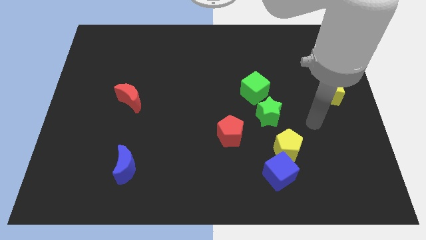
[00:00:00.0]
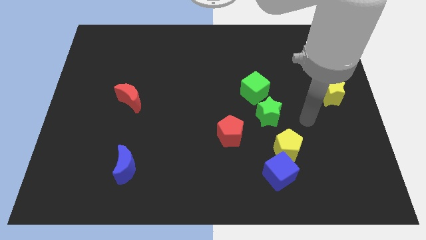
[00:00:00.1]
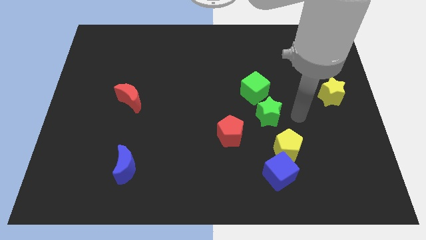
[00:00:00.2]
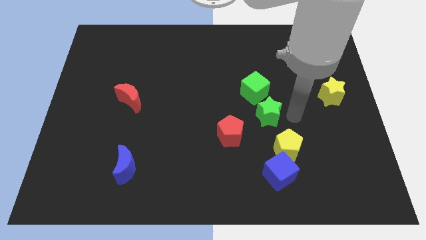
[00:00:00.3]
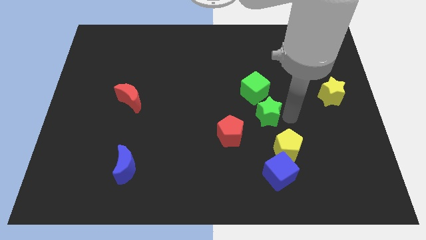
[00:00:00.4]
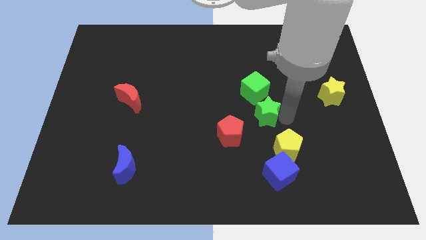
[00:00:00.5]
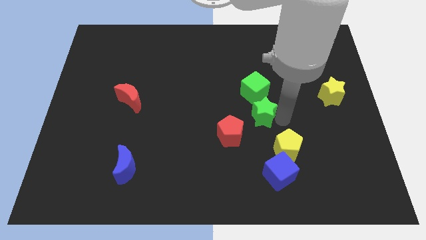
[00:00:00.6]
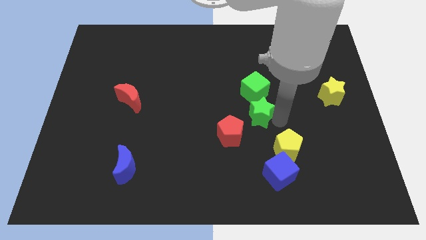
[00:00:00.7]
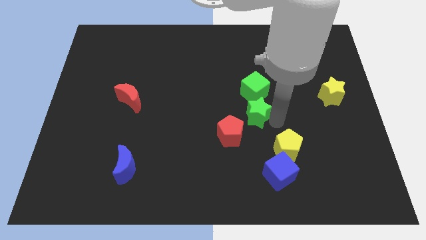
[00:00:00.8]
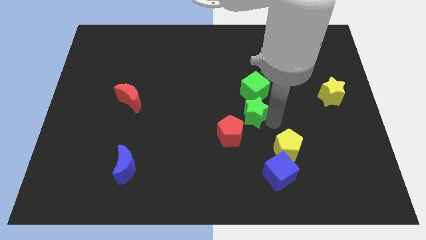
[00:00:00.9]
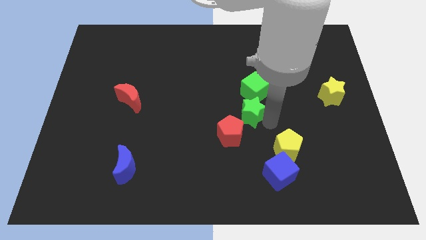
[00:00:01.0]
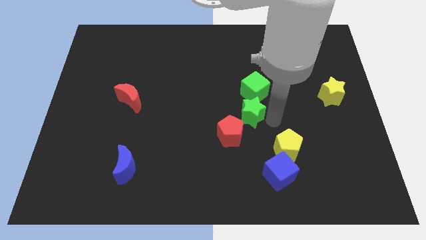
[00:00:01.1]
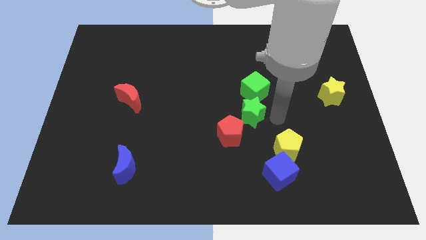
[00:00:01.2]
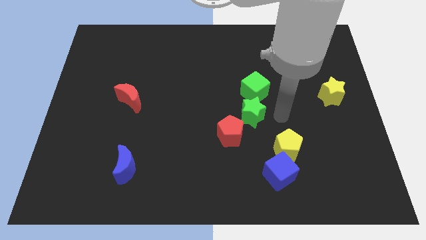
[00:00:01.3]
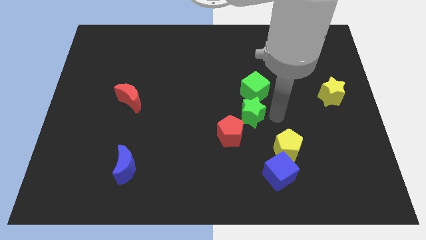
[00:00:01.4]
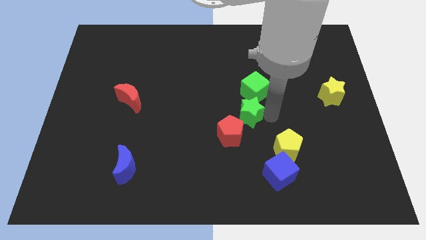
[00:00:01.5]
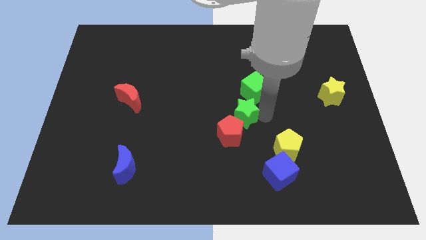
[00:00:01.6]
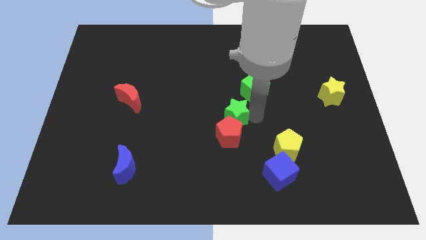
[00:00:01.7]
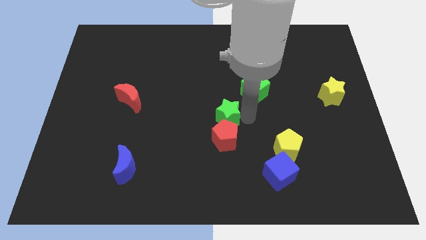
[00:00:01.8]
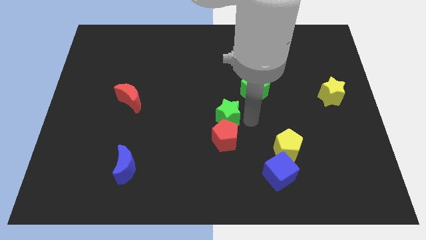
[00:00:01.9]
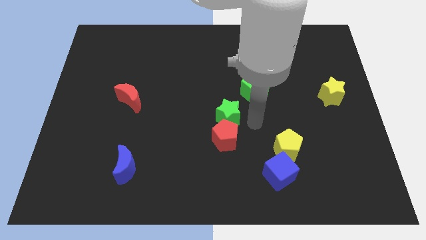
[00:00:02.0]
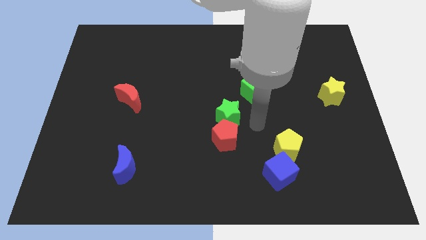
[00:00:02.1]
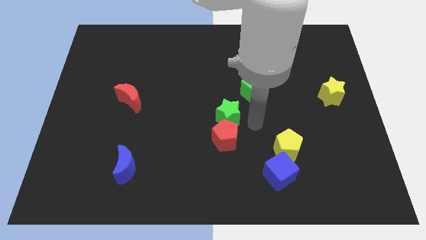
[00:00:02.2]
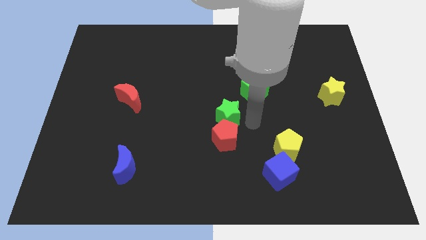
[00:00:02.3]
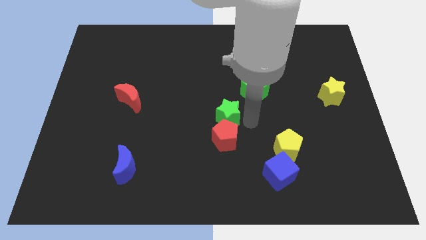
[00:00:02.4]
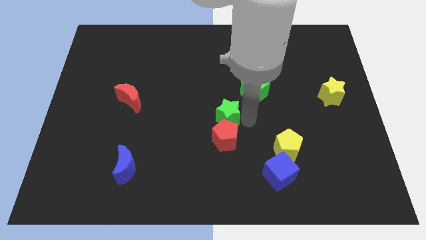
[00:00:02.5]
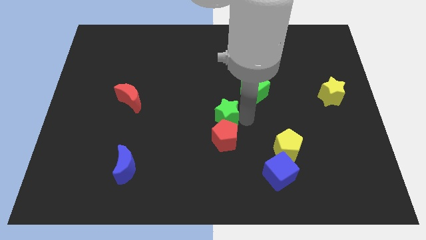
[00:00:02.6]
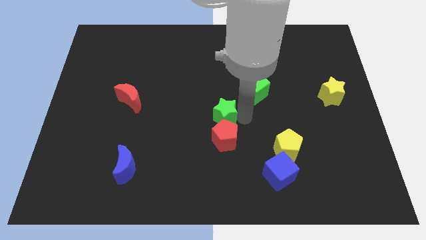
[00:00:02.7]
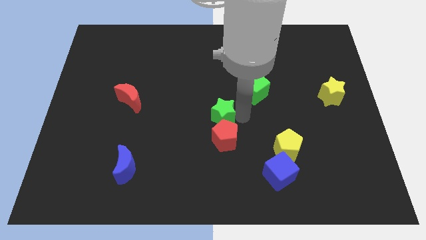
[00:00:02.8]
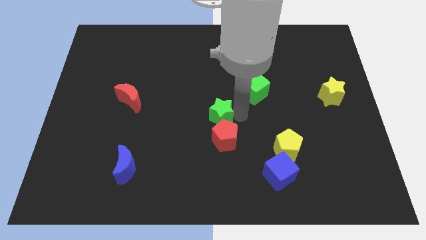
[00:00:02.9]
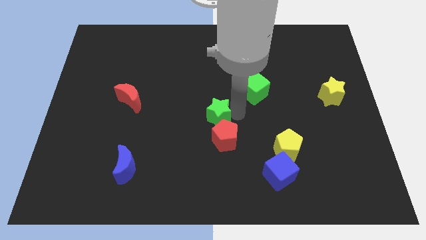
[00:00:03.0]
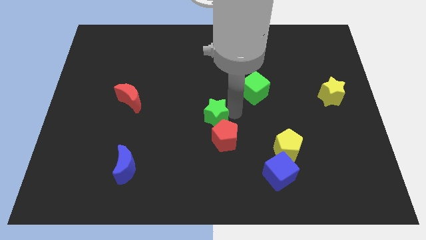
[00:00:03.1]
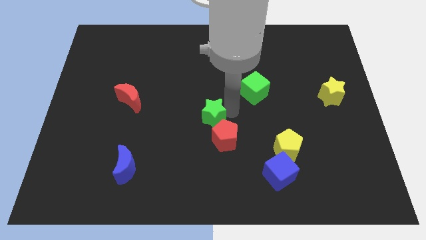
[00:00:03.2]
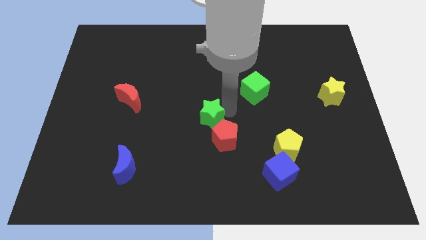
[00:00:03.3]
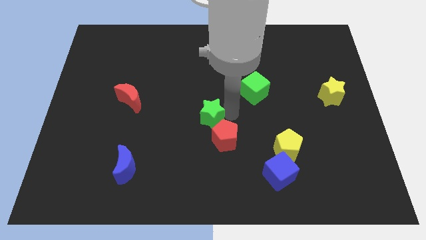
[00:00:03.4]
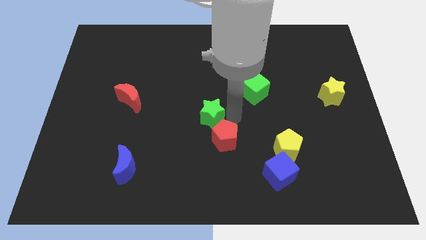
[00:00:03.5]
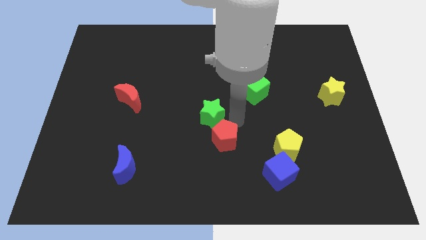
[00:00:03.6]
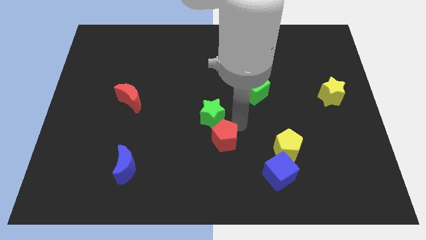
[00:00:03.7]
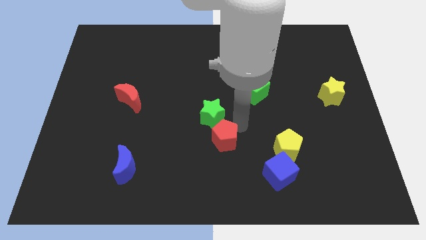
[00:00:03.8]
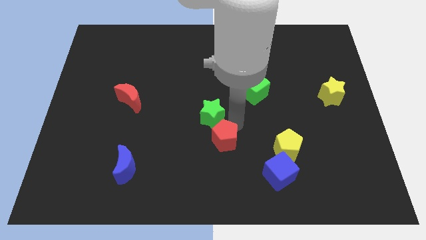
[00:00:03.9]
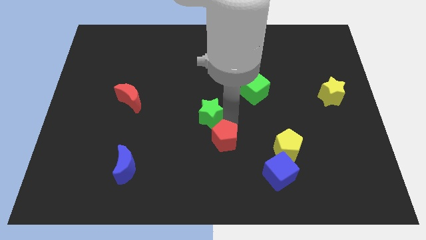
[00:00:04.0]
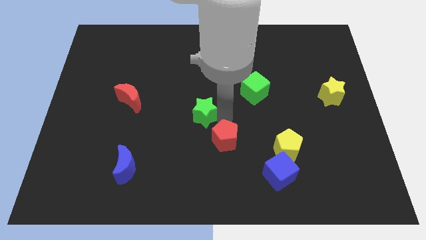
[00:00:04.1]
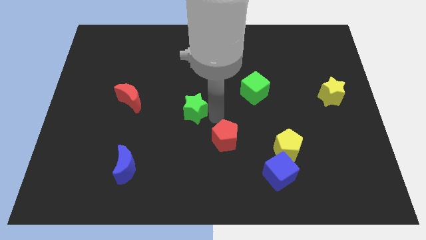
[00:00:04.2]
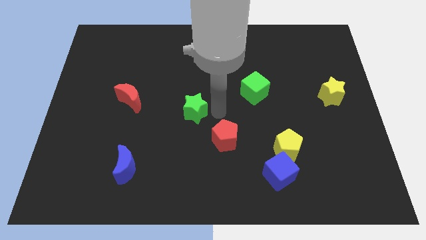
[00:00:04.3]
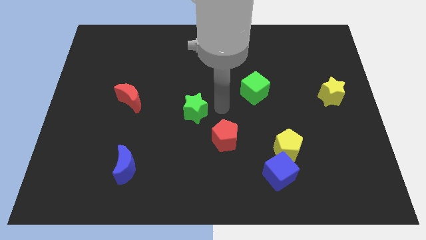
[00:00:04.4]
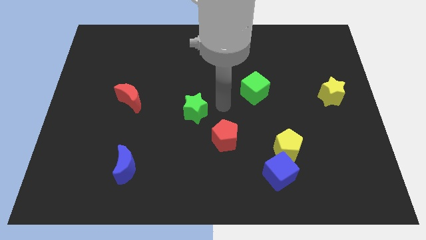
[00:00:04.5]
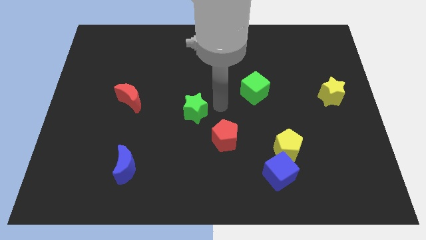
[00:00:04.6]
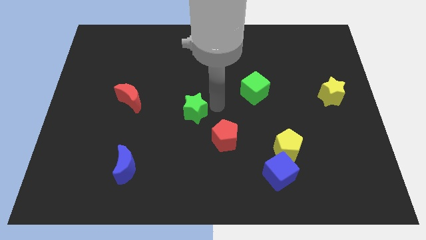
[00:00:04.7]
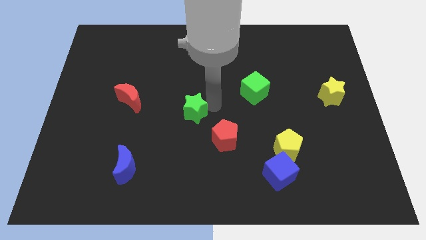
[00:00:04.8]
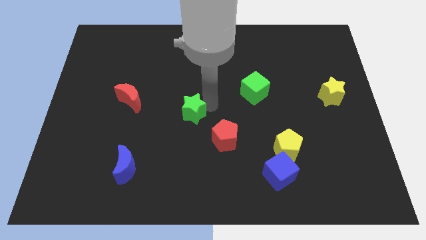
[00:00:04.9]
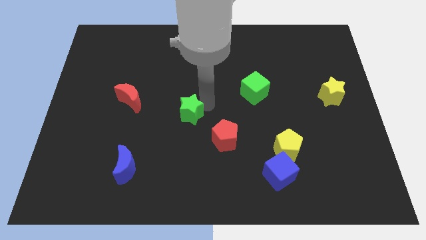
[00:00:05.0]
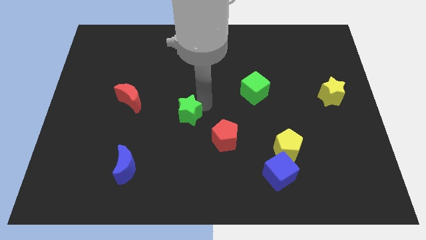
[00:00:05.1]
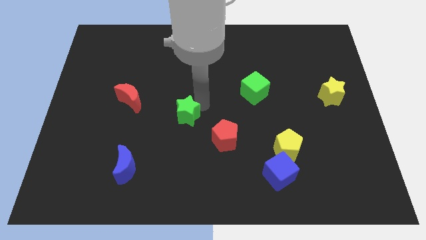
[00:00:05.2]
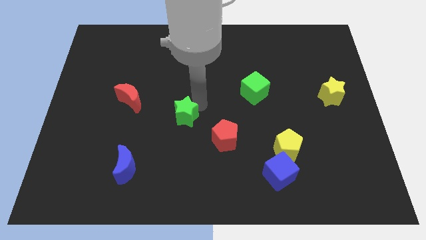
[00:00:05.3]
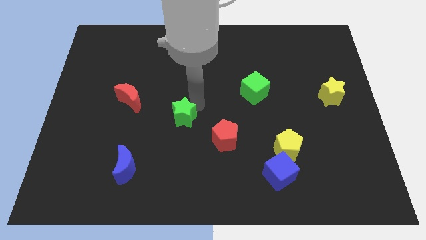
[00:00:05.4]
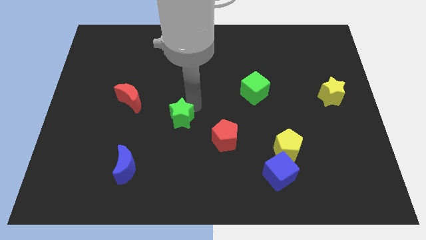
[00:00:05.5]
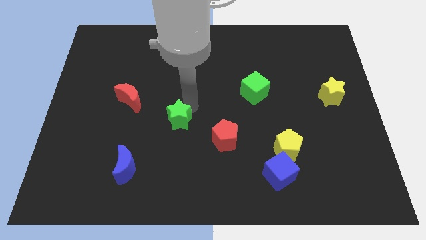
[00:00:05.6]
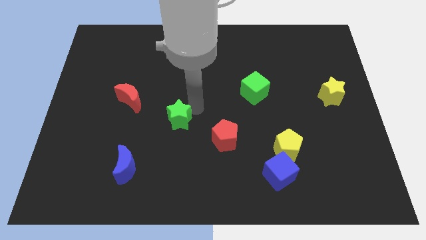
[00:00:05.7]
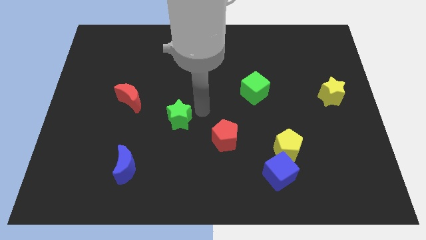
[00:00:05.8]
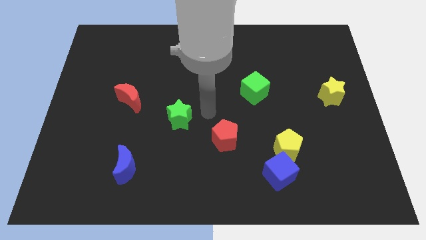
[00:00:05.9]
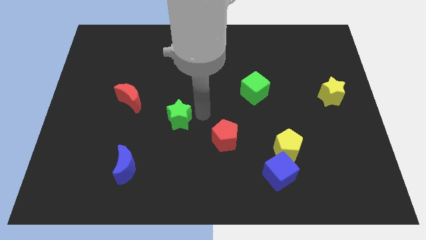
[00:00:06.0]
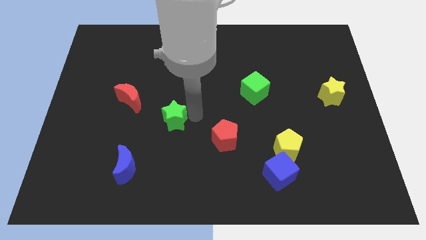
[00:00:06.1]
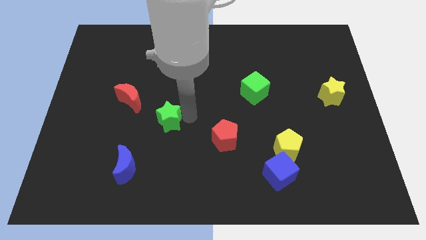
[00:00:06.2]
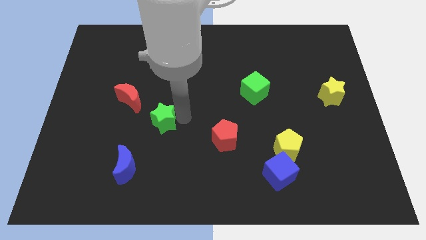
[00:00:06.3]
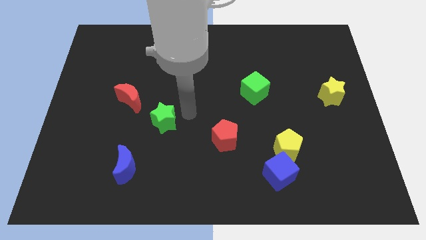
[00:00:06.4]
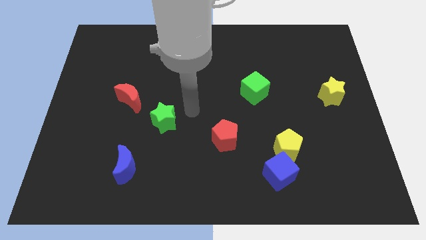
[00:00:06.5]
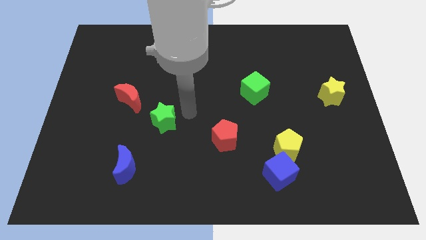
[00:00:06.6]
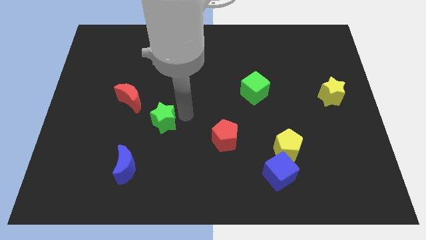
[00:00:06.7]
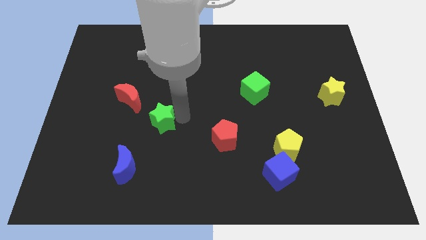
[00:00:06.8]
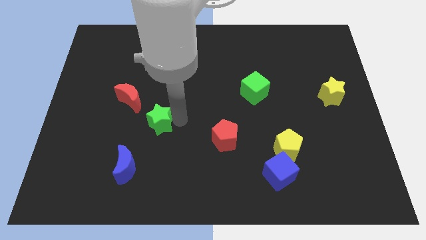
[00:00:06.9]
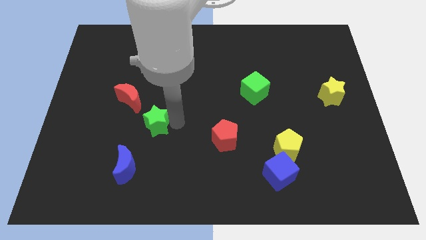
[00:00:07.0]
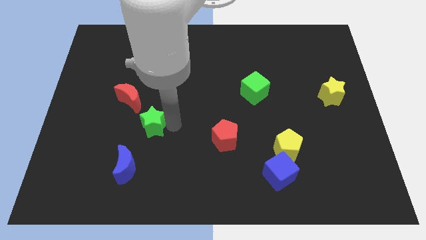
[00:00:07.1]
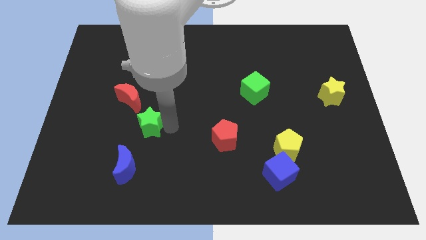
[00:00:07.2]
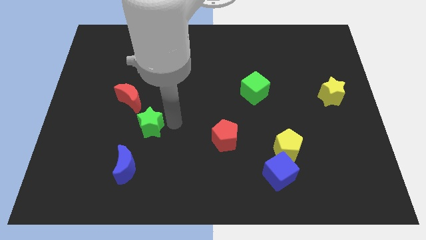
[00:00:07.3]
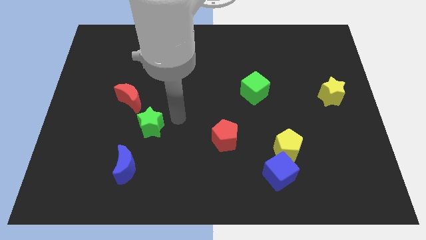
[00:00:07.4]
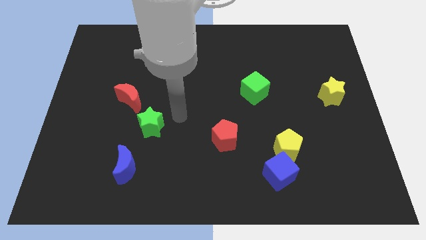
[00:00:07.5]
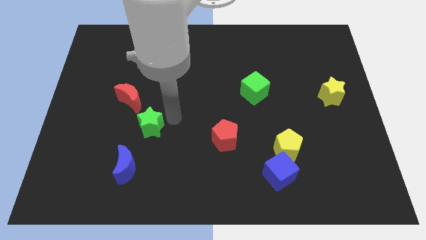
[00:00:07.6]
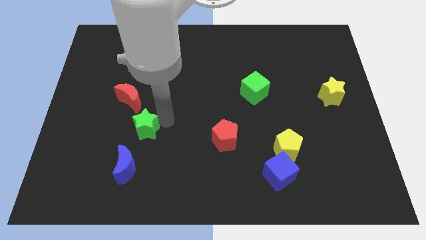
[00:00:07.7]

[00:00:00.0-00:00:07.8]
slide the green star to the bottom side of the red moon
